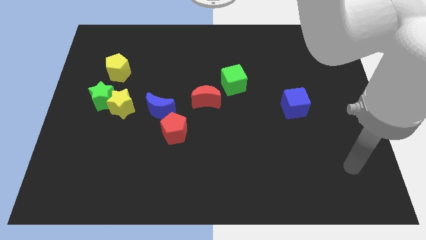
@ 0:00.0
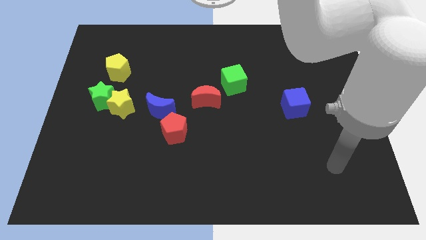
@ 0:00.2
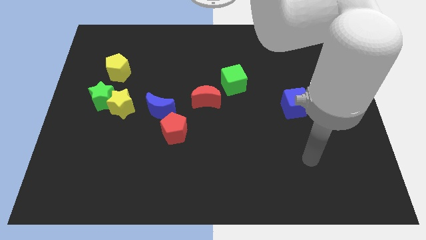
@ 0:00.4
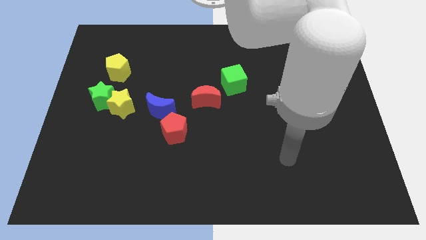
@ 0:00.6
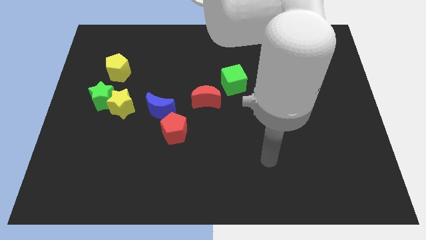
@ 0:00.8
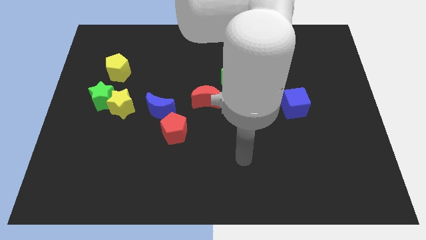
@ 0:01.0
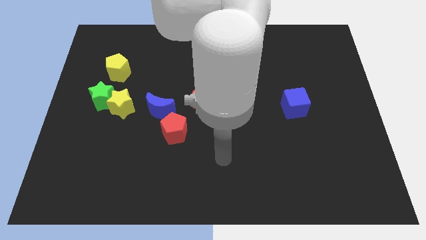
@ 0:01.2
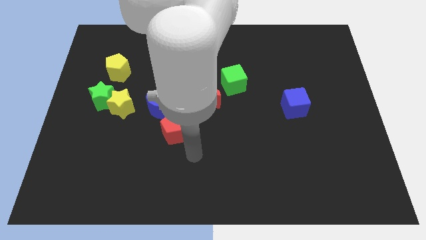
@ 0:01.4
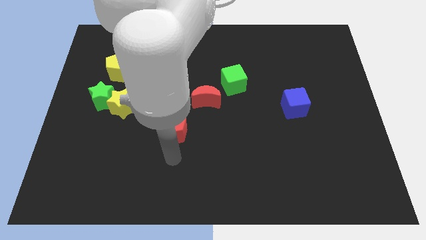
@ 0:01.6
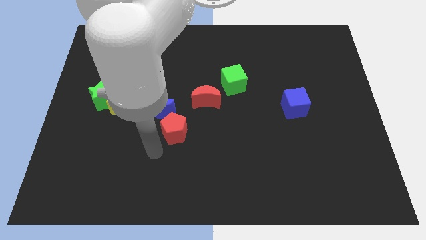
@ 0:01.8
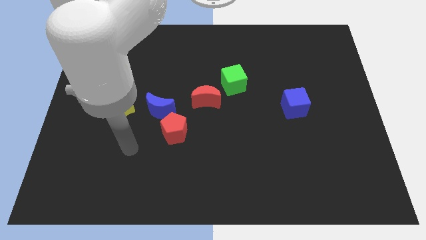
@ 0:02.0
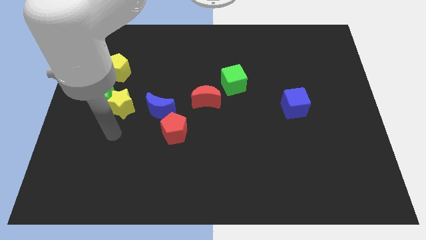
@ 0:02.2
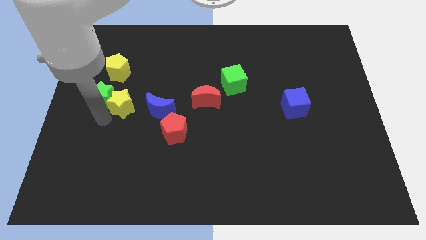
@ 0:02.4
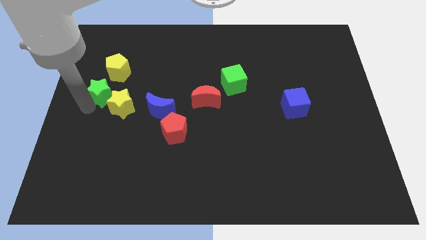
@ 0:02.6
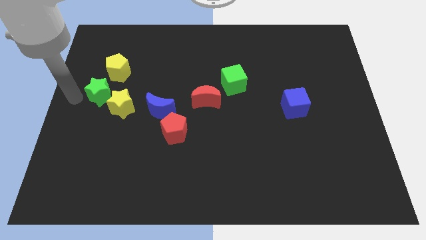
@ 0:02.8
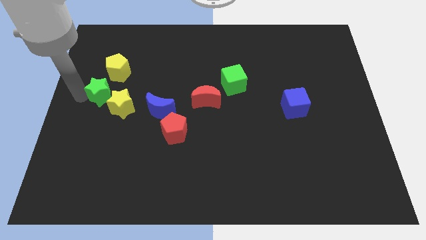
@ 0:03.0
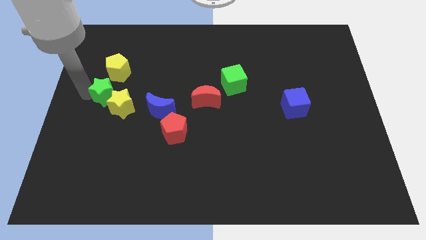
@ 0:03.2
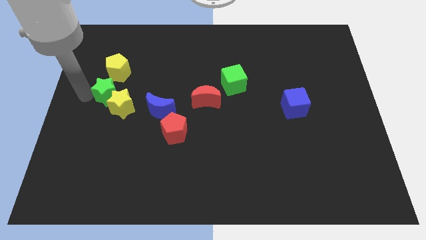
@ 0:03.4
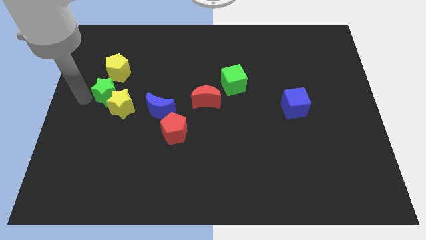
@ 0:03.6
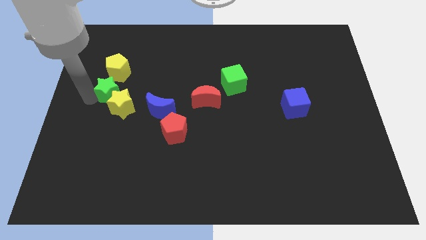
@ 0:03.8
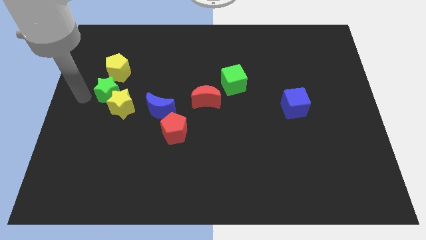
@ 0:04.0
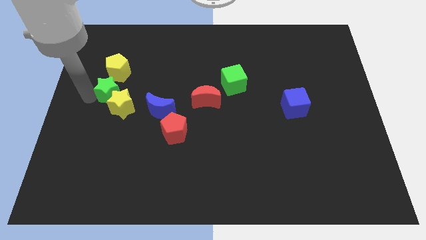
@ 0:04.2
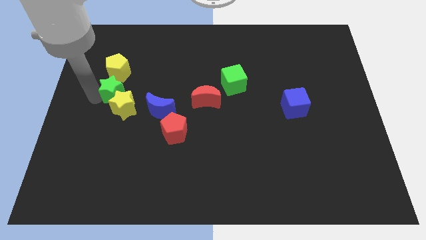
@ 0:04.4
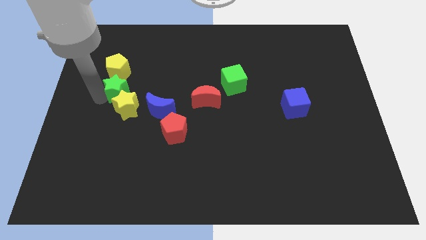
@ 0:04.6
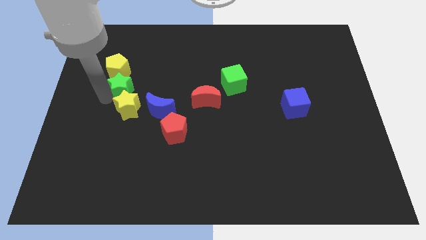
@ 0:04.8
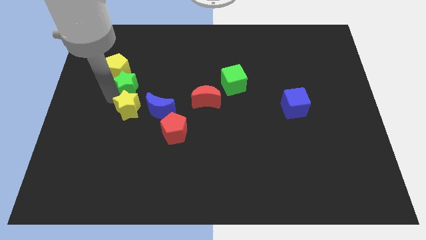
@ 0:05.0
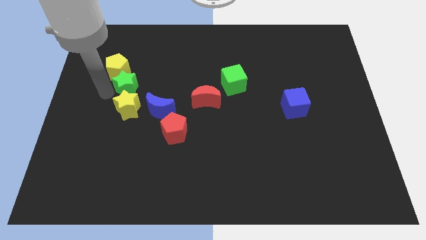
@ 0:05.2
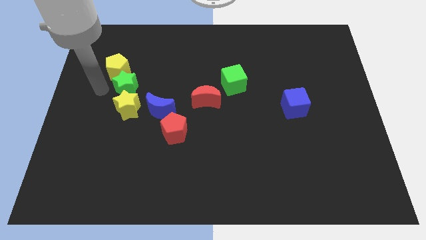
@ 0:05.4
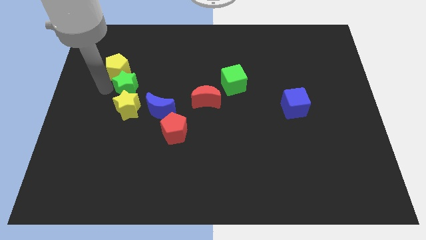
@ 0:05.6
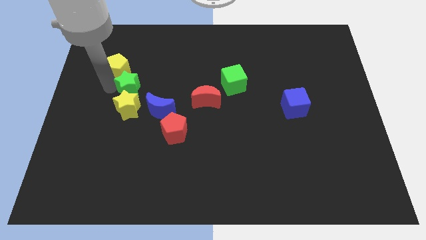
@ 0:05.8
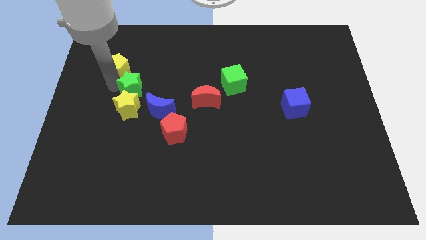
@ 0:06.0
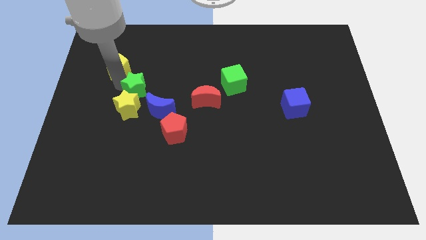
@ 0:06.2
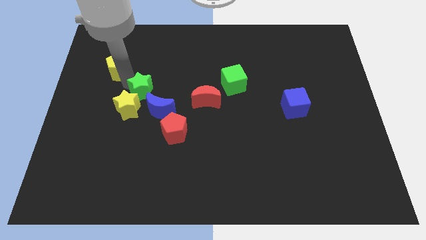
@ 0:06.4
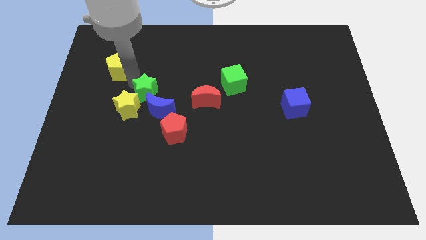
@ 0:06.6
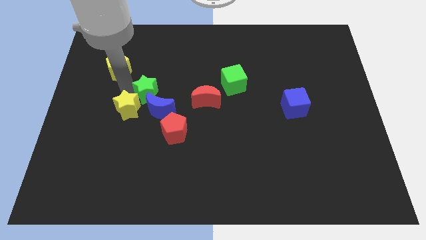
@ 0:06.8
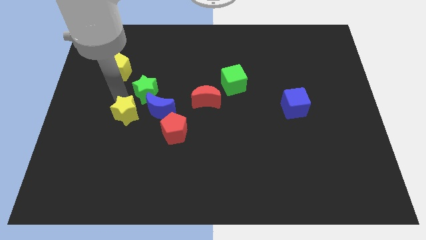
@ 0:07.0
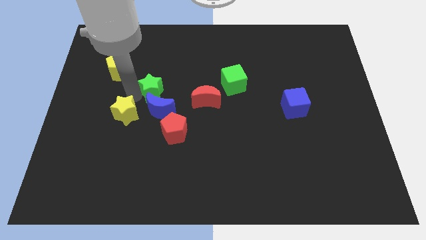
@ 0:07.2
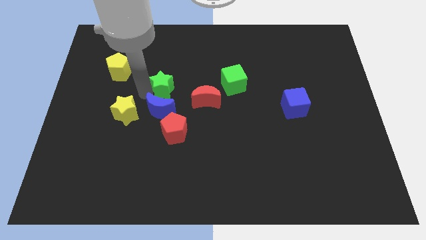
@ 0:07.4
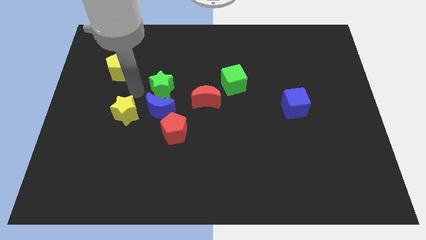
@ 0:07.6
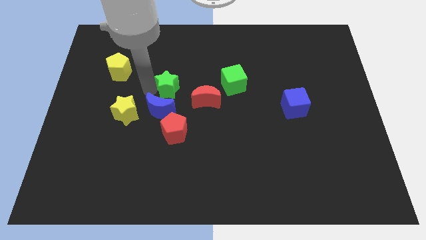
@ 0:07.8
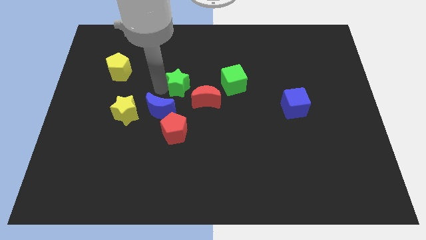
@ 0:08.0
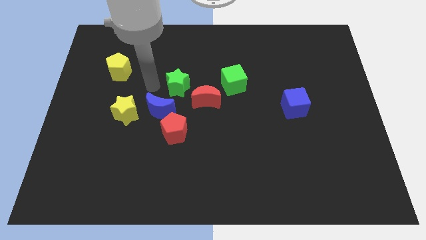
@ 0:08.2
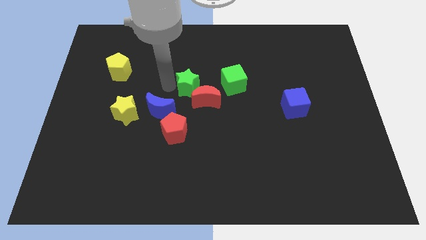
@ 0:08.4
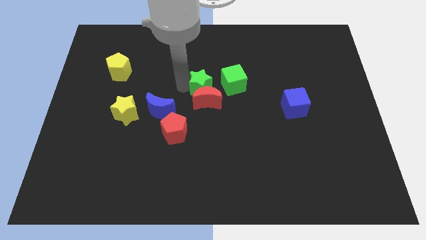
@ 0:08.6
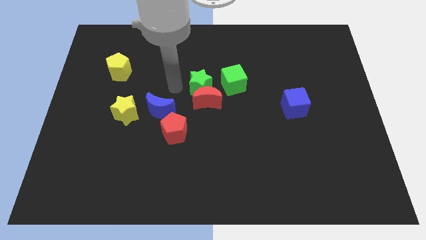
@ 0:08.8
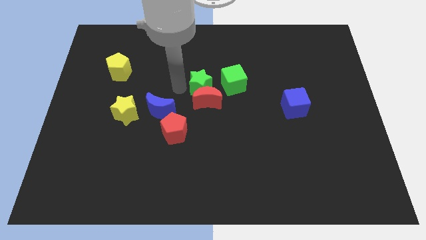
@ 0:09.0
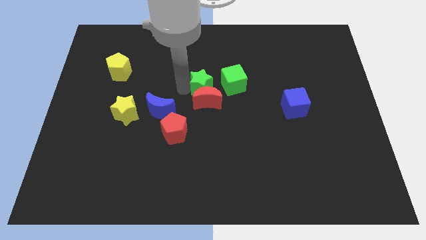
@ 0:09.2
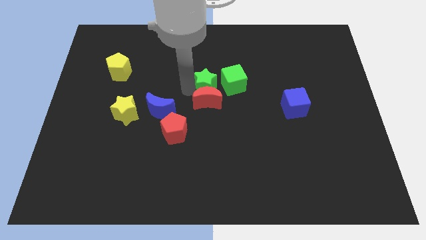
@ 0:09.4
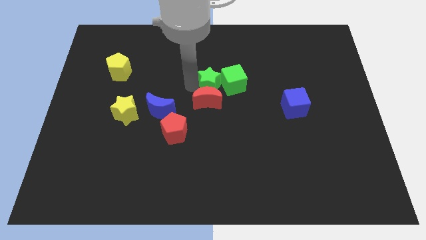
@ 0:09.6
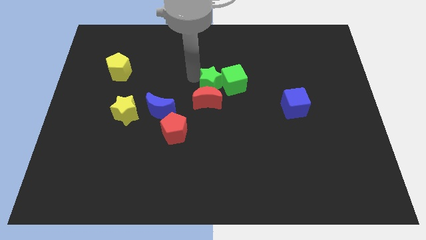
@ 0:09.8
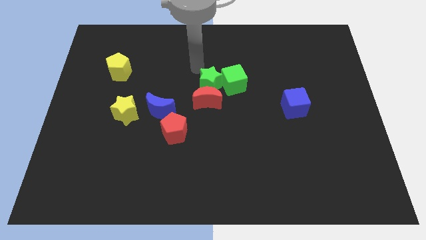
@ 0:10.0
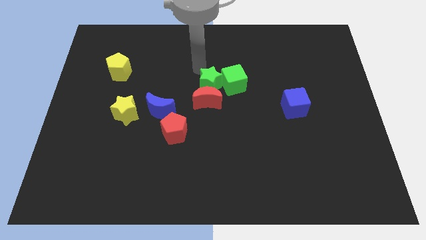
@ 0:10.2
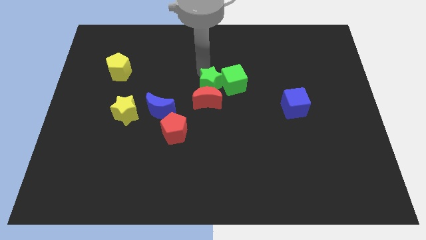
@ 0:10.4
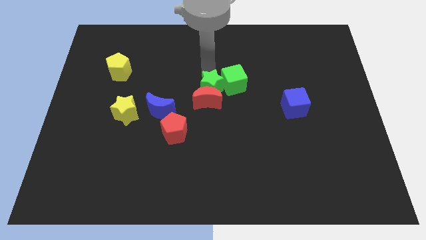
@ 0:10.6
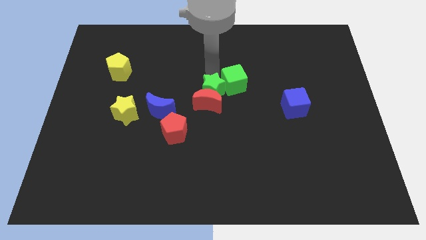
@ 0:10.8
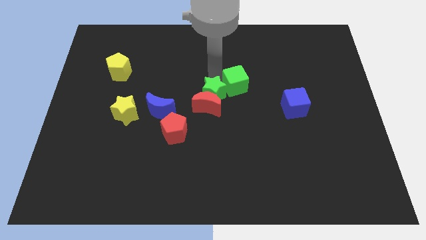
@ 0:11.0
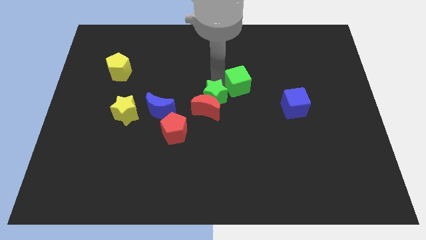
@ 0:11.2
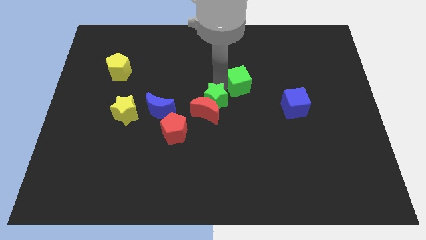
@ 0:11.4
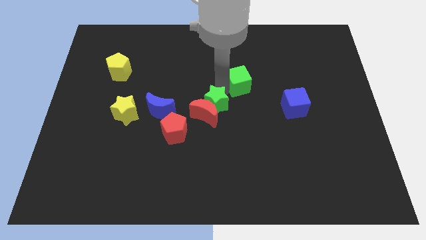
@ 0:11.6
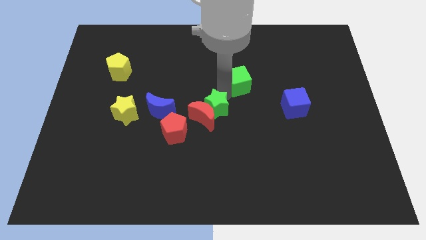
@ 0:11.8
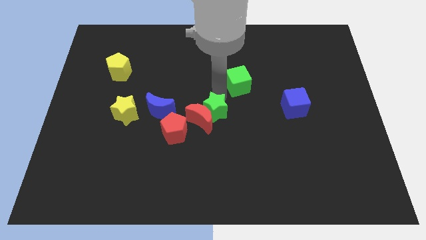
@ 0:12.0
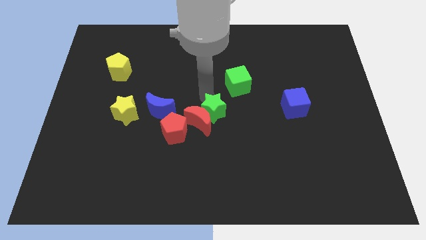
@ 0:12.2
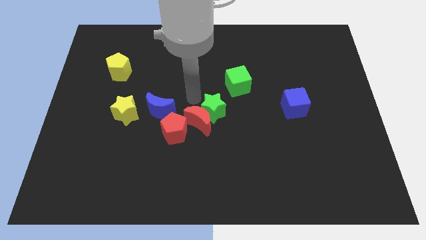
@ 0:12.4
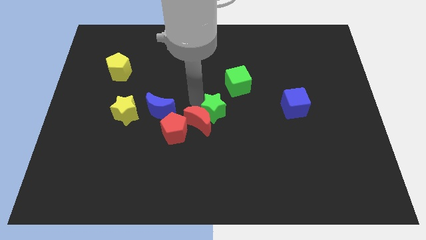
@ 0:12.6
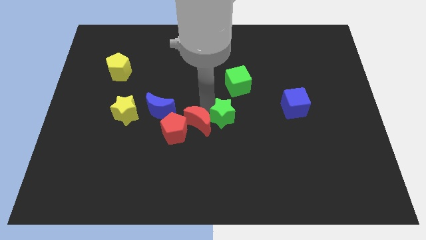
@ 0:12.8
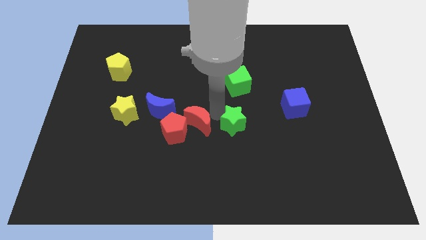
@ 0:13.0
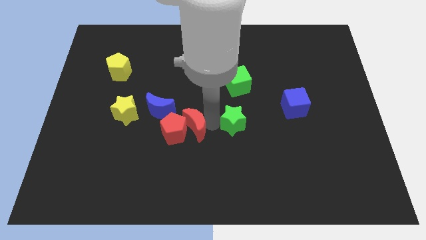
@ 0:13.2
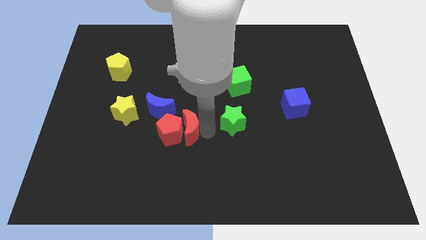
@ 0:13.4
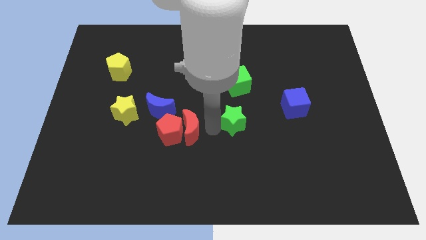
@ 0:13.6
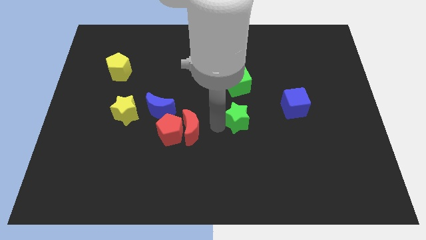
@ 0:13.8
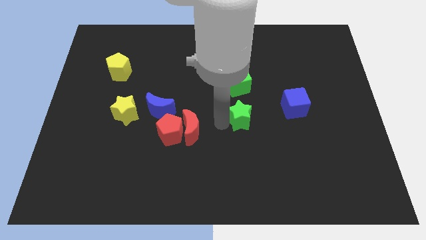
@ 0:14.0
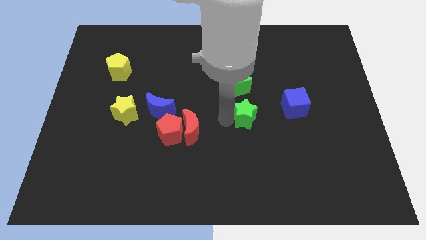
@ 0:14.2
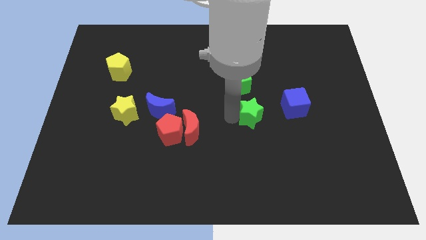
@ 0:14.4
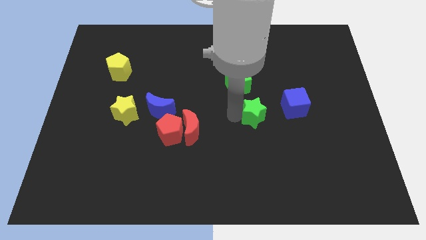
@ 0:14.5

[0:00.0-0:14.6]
slide the green star diagonally down and to the left of the blue cube

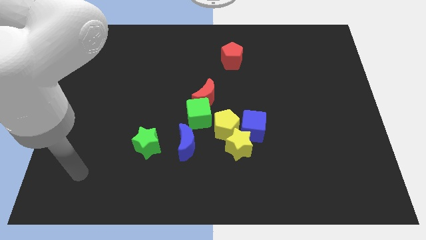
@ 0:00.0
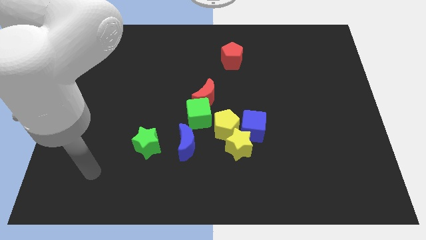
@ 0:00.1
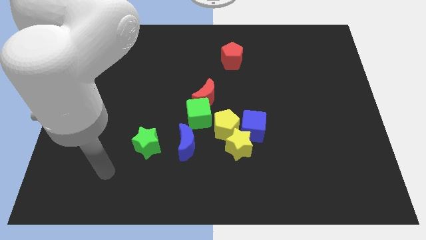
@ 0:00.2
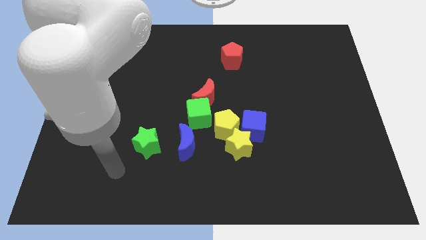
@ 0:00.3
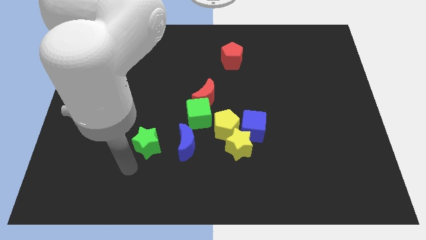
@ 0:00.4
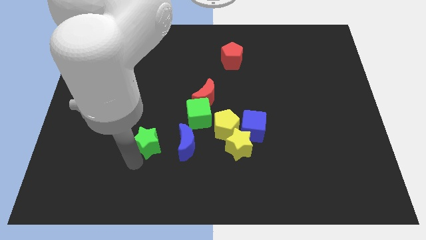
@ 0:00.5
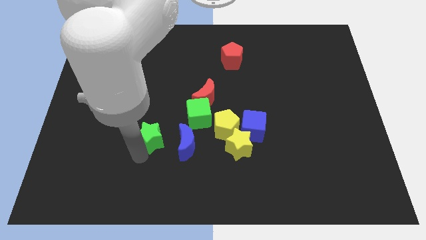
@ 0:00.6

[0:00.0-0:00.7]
put the green star to the top left of the blue moon
